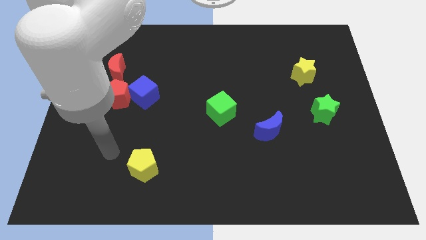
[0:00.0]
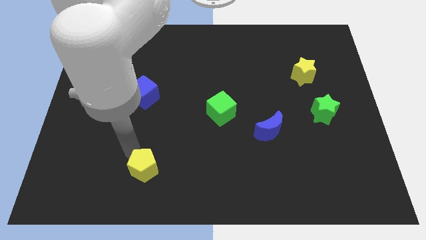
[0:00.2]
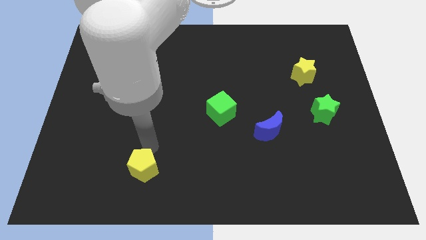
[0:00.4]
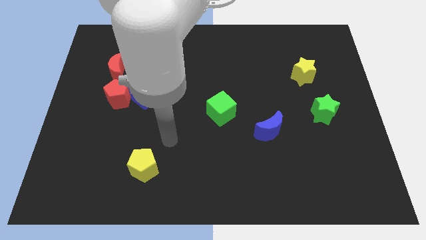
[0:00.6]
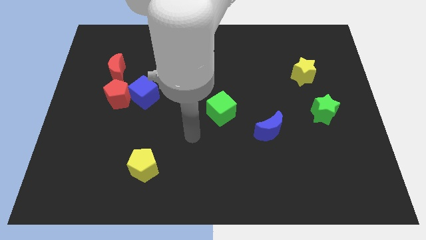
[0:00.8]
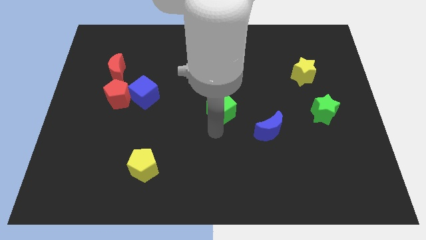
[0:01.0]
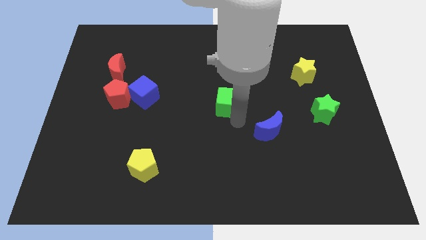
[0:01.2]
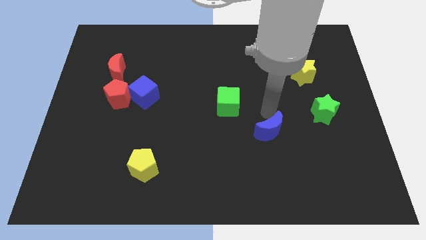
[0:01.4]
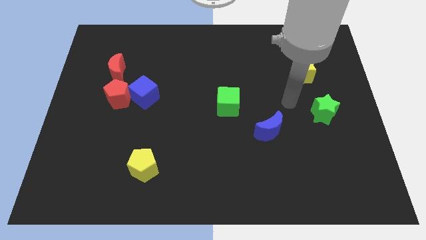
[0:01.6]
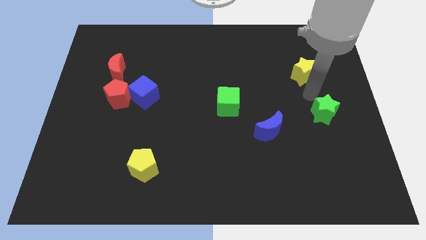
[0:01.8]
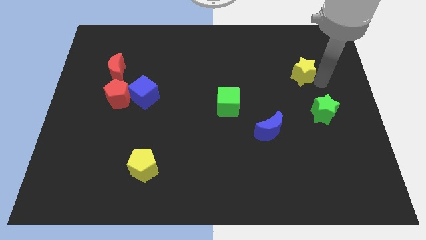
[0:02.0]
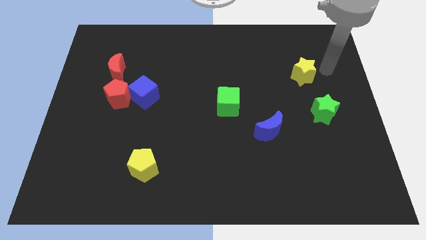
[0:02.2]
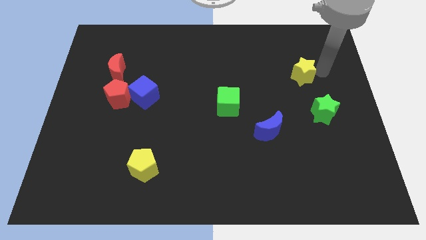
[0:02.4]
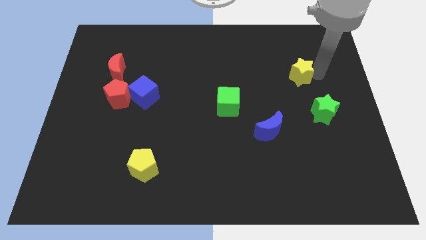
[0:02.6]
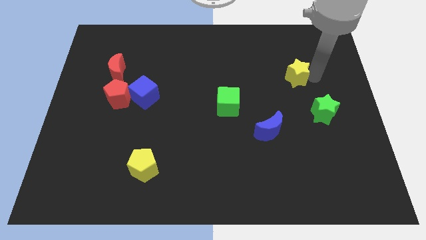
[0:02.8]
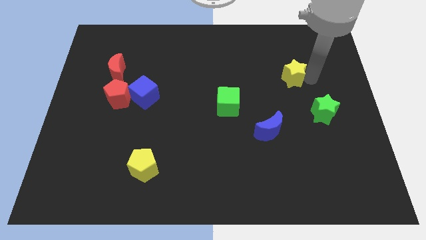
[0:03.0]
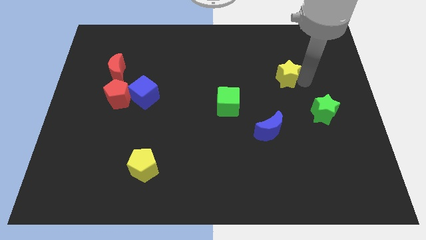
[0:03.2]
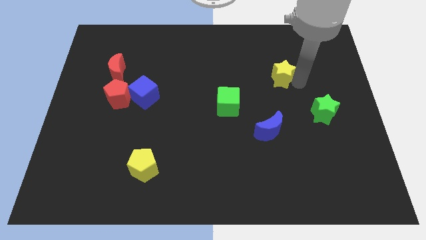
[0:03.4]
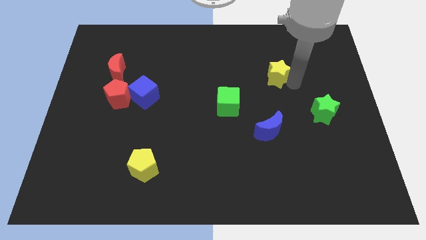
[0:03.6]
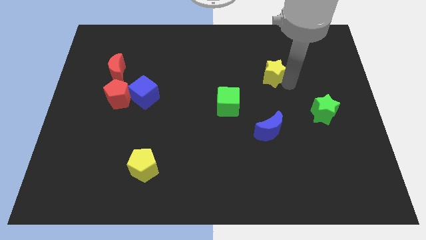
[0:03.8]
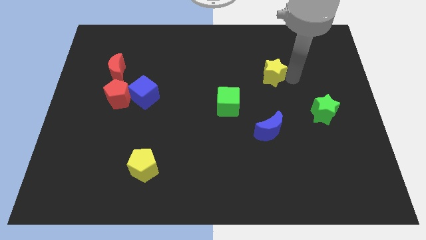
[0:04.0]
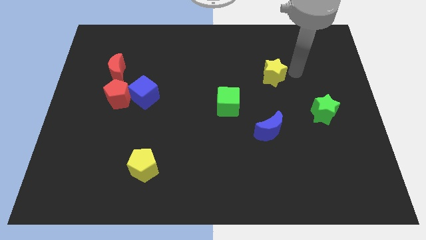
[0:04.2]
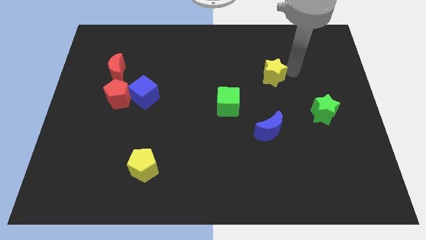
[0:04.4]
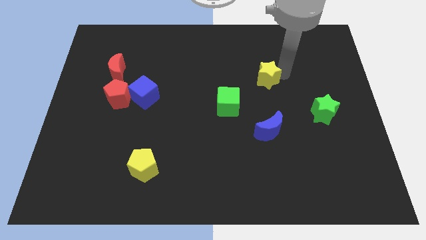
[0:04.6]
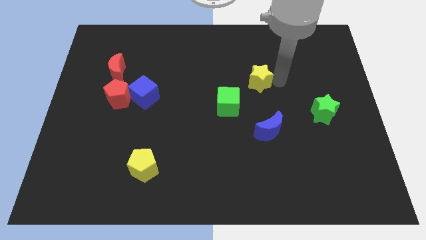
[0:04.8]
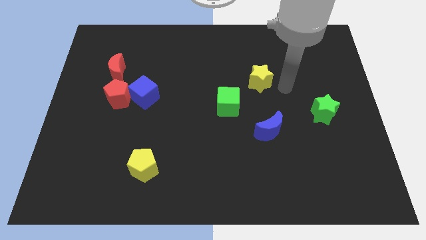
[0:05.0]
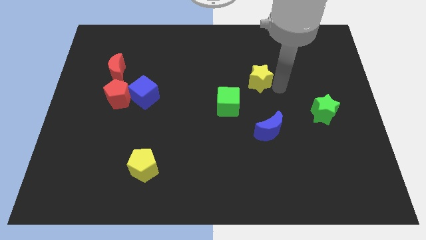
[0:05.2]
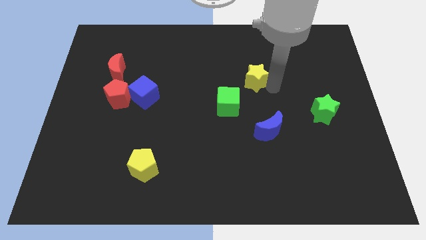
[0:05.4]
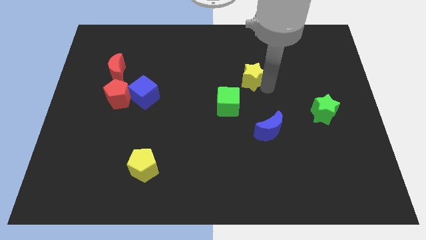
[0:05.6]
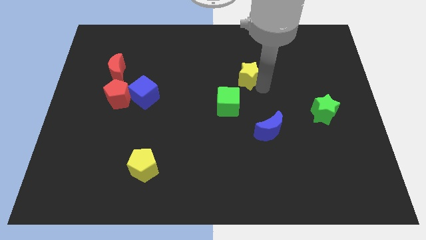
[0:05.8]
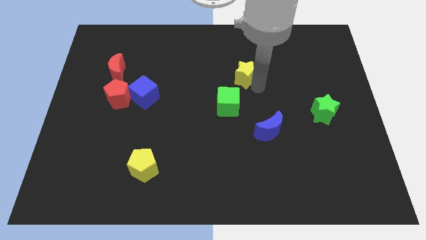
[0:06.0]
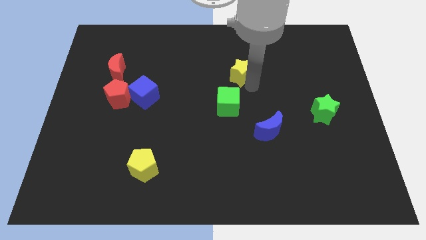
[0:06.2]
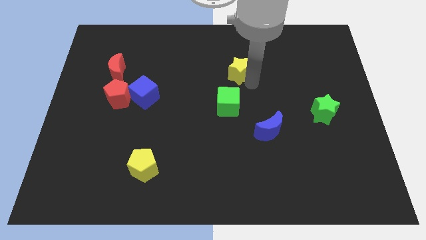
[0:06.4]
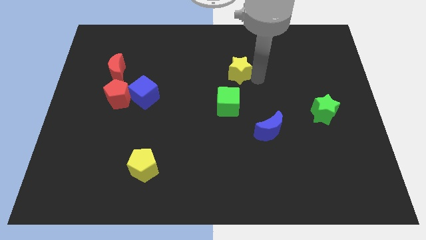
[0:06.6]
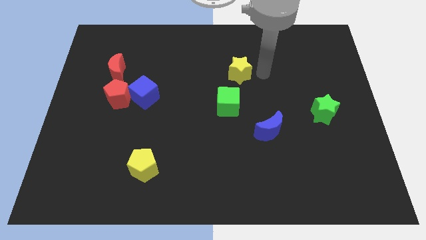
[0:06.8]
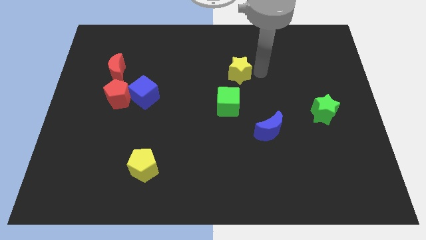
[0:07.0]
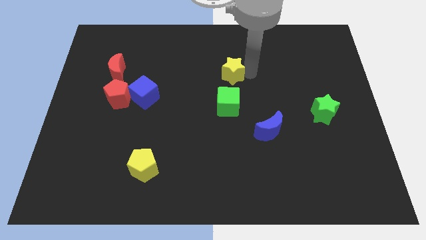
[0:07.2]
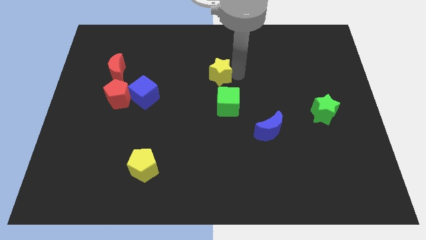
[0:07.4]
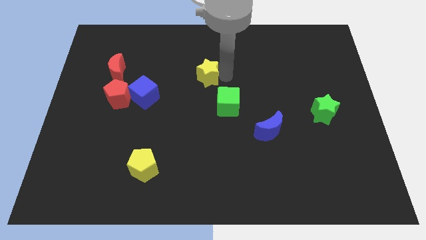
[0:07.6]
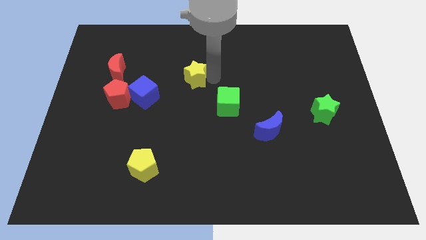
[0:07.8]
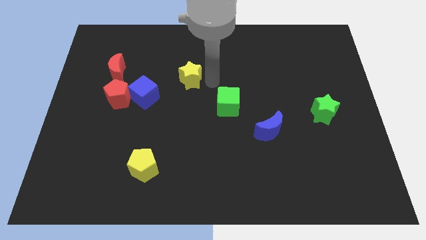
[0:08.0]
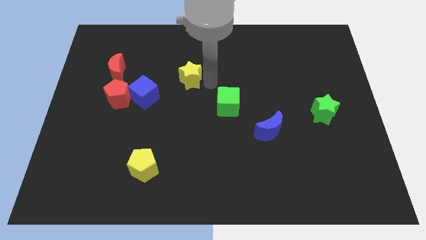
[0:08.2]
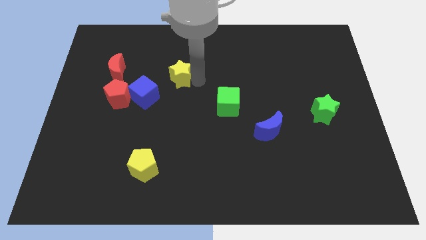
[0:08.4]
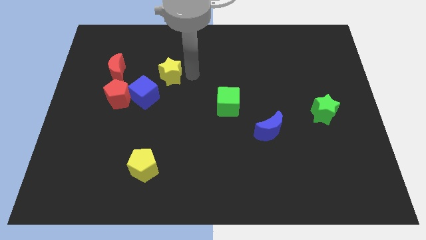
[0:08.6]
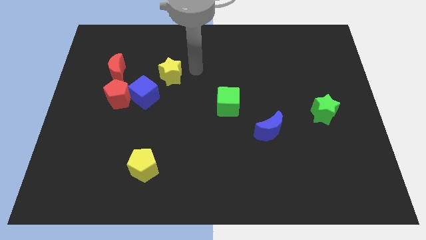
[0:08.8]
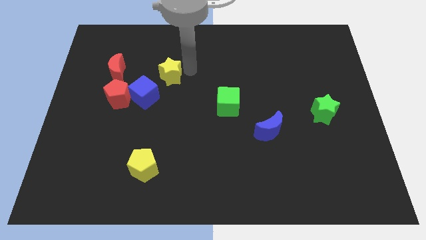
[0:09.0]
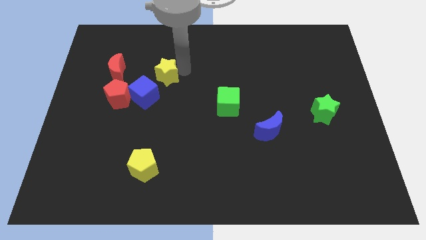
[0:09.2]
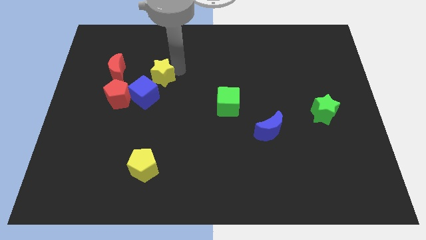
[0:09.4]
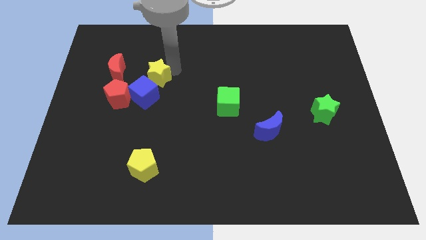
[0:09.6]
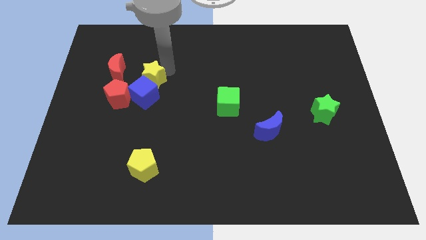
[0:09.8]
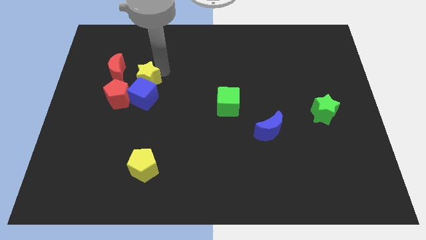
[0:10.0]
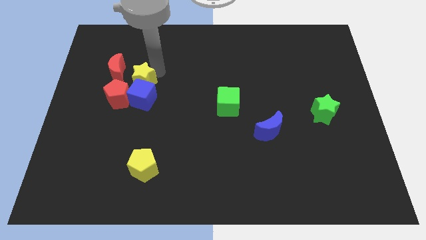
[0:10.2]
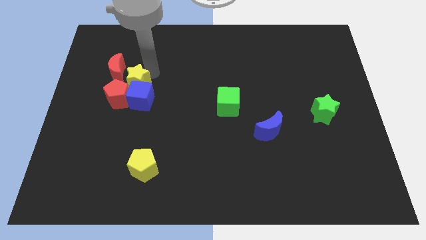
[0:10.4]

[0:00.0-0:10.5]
slide the yellow star close to the red pentagon

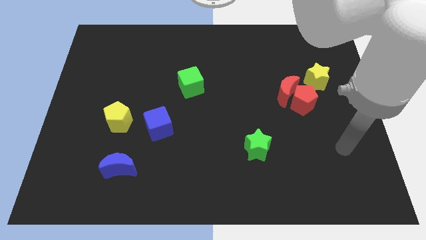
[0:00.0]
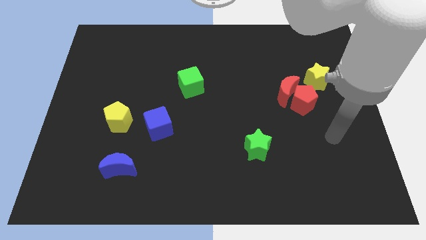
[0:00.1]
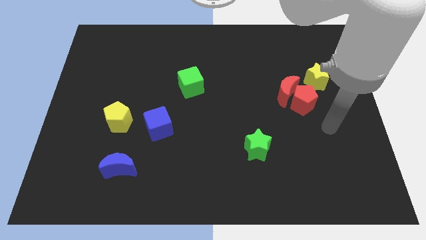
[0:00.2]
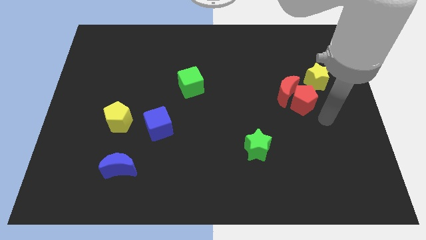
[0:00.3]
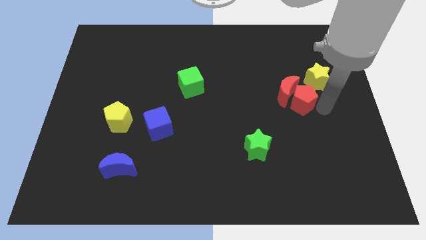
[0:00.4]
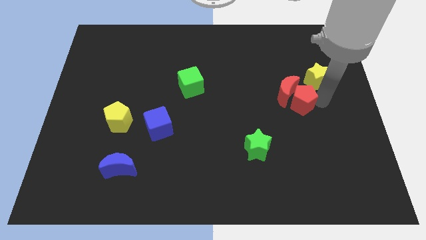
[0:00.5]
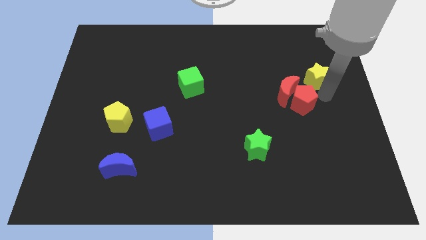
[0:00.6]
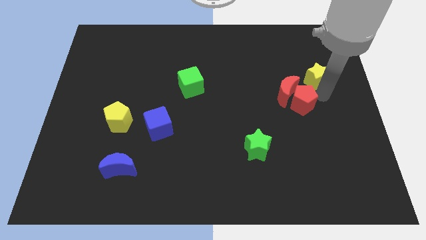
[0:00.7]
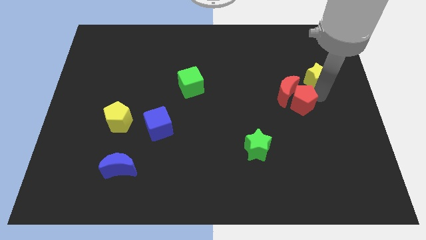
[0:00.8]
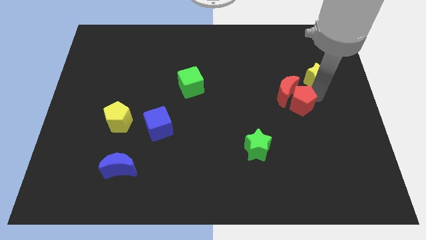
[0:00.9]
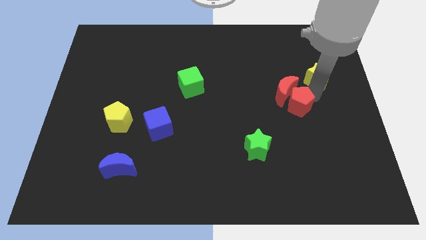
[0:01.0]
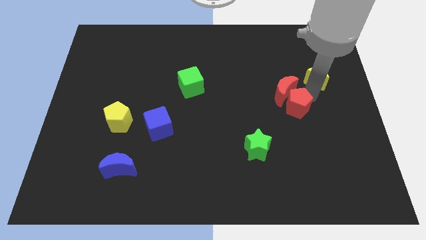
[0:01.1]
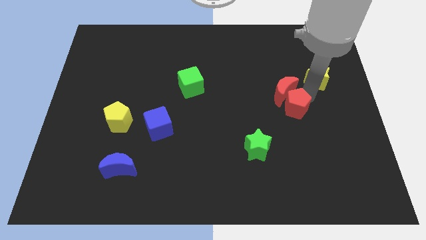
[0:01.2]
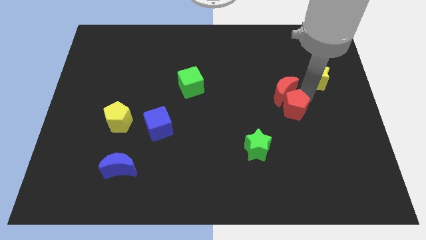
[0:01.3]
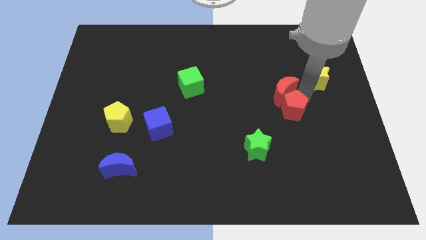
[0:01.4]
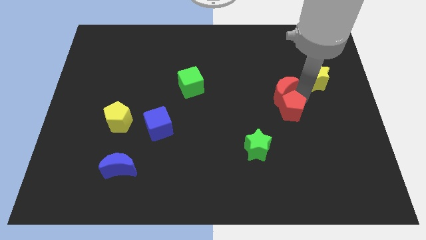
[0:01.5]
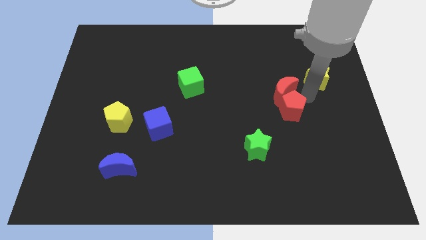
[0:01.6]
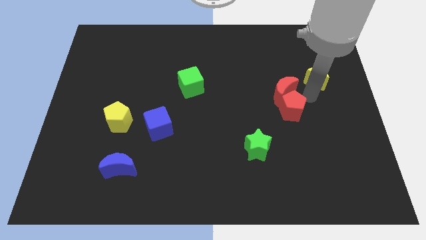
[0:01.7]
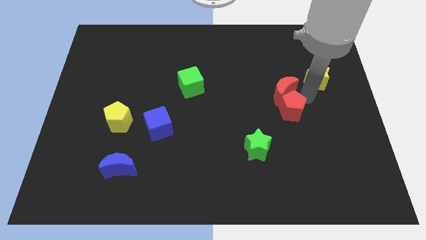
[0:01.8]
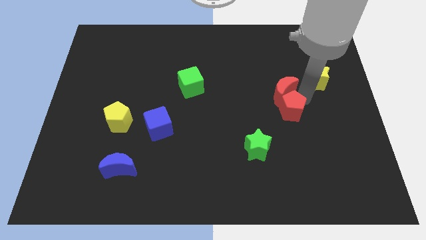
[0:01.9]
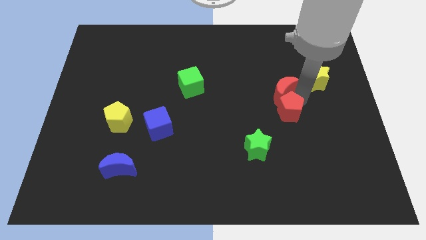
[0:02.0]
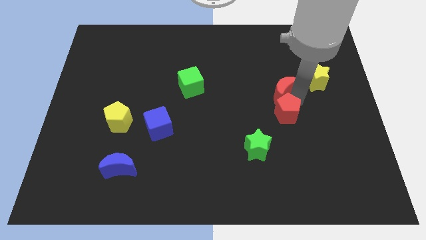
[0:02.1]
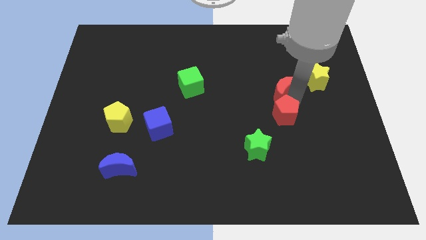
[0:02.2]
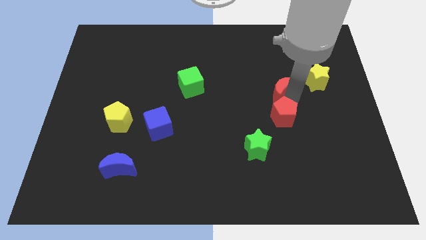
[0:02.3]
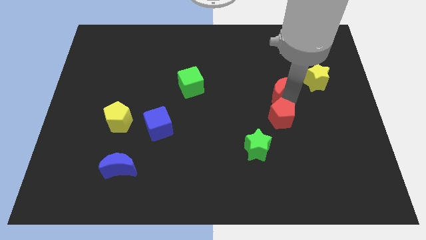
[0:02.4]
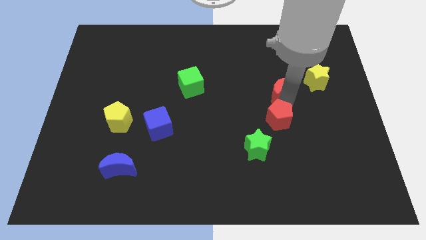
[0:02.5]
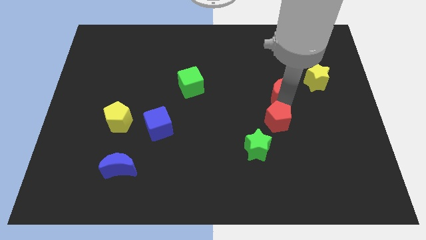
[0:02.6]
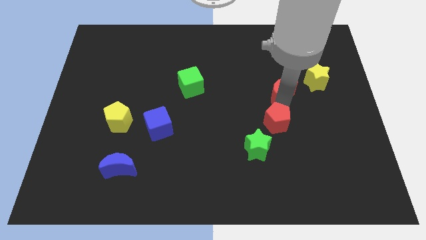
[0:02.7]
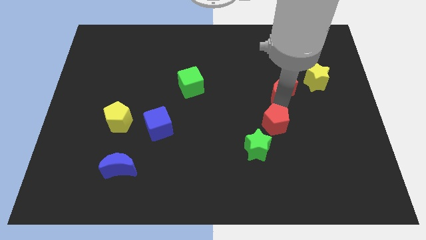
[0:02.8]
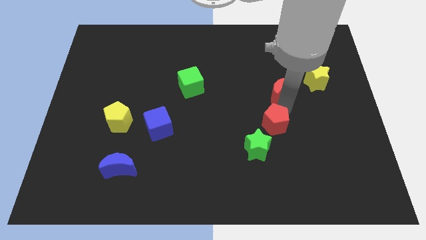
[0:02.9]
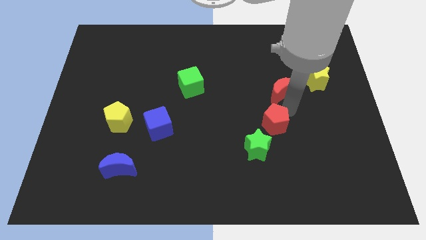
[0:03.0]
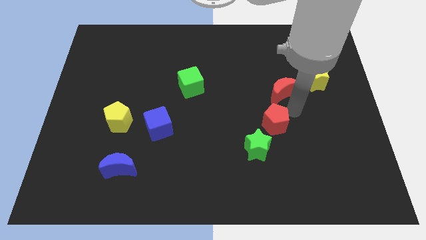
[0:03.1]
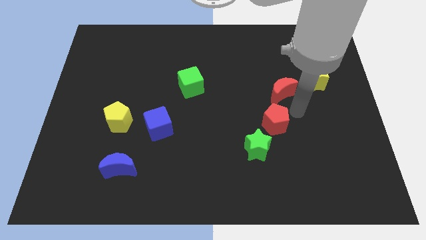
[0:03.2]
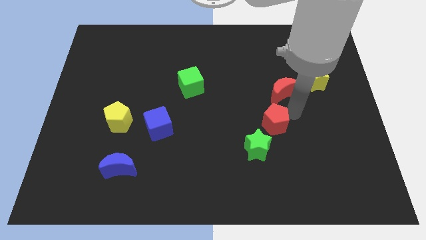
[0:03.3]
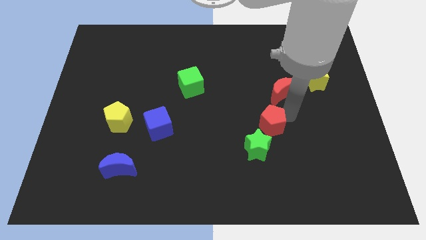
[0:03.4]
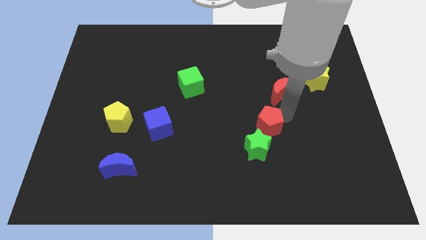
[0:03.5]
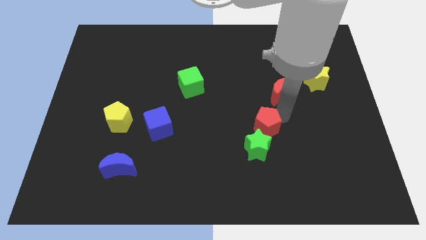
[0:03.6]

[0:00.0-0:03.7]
slide the red pentagon close to the green star
